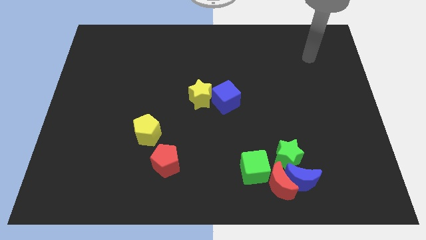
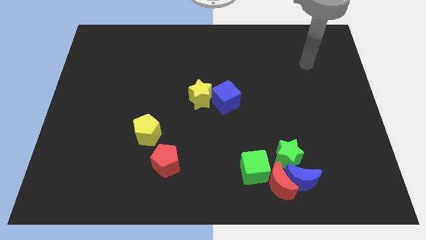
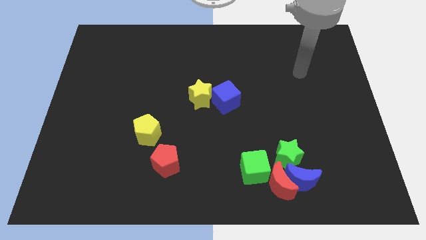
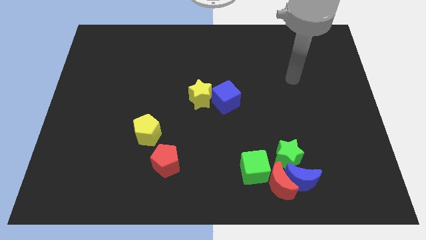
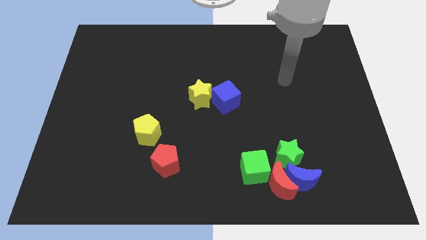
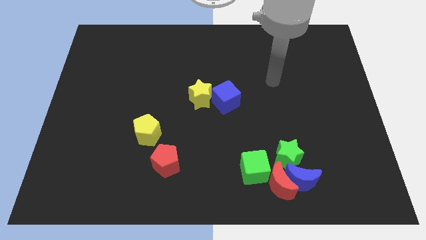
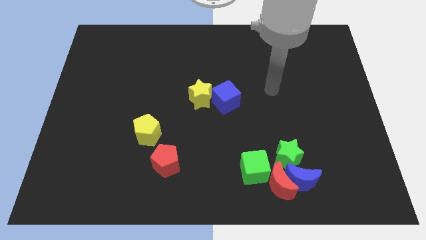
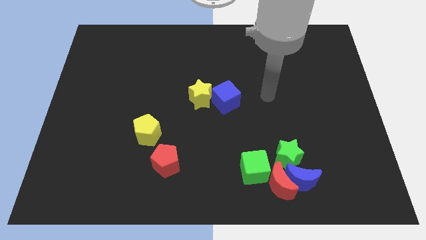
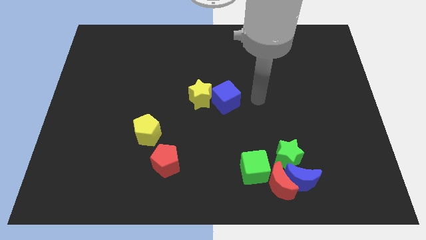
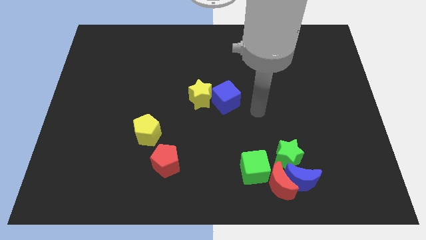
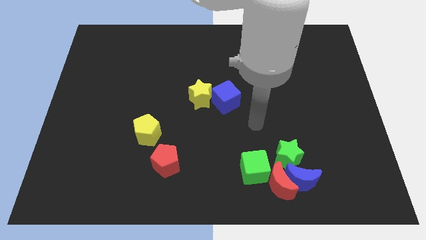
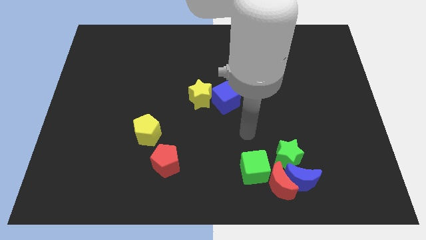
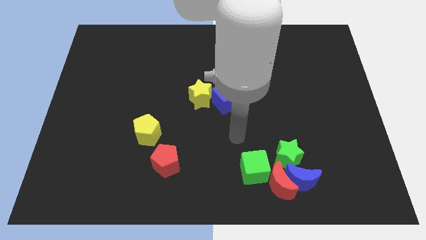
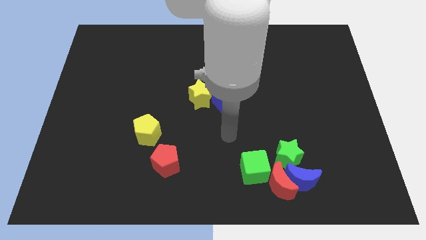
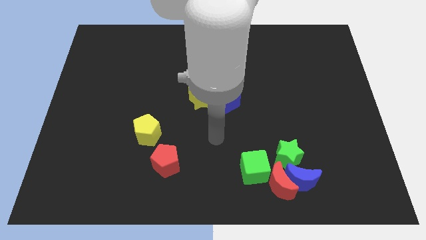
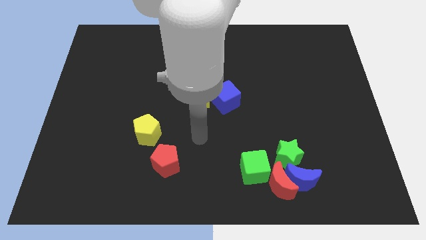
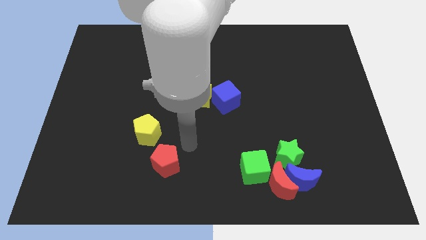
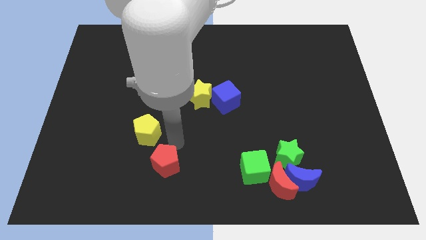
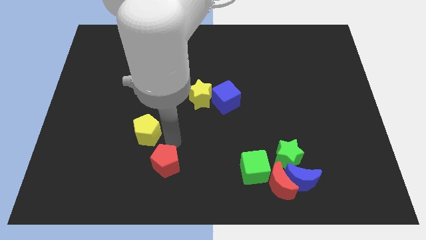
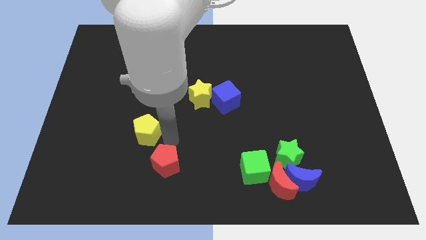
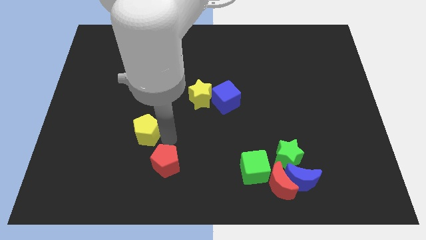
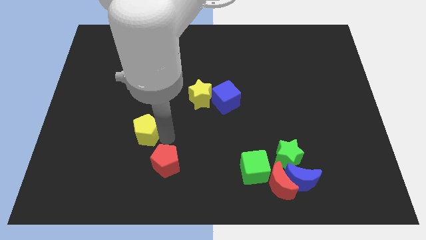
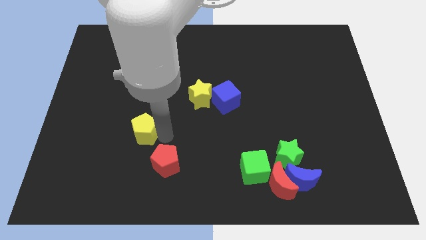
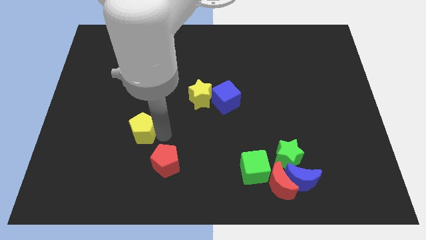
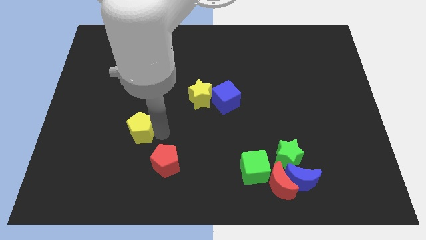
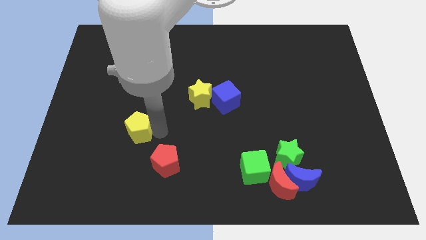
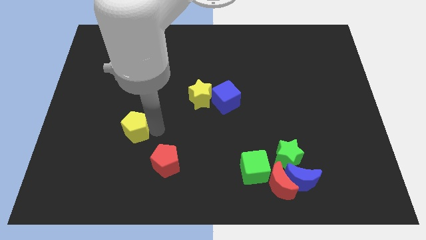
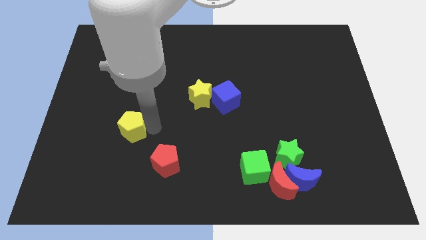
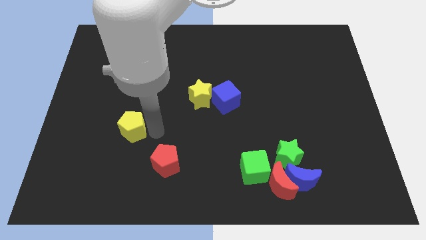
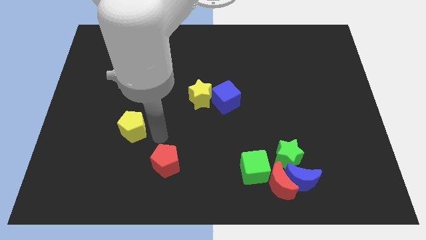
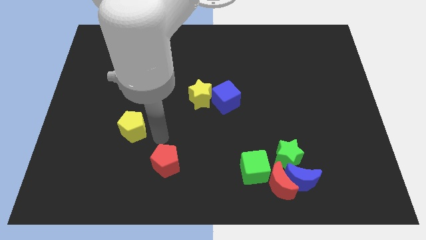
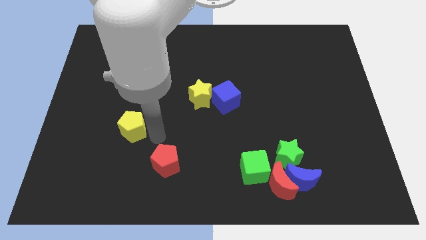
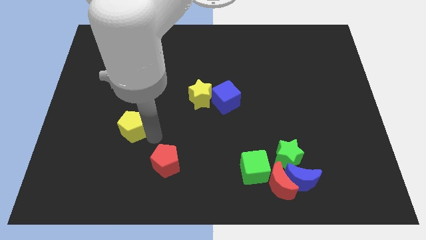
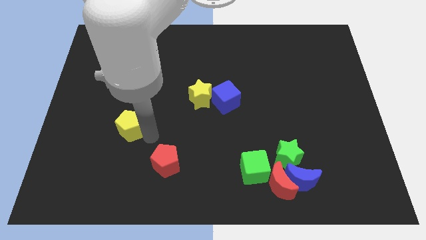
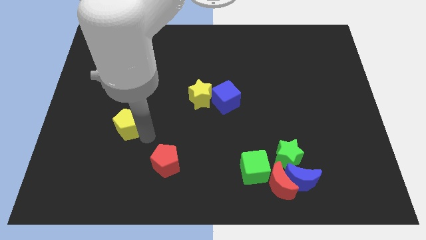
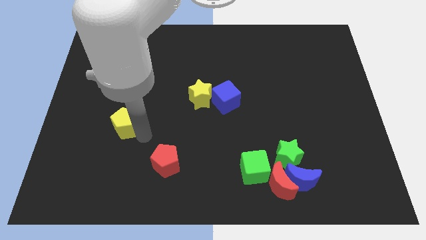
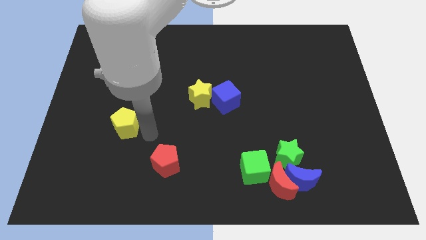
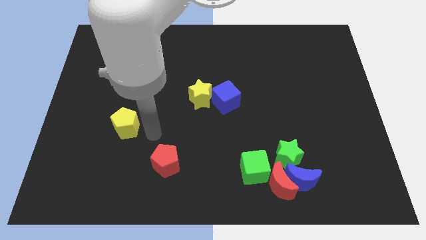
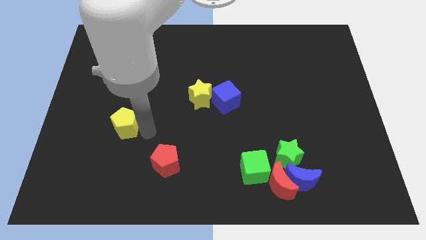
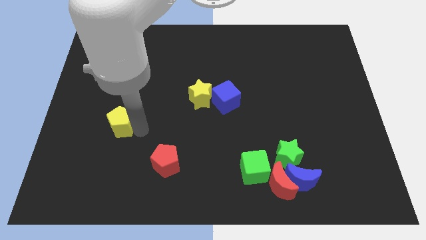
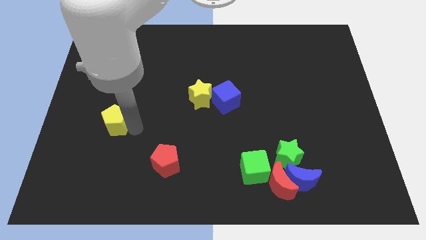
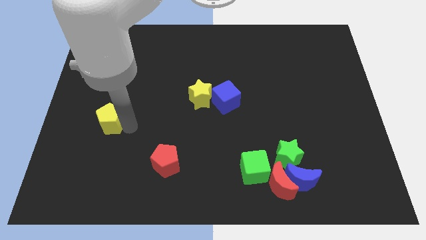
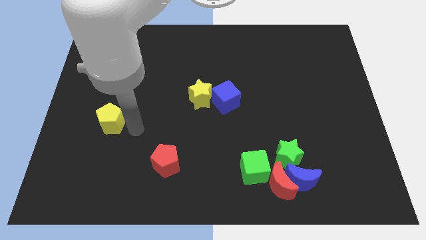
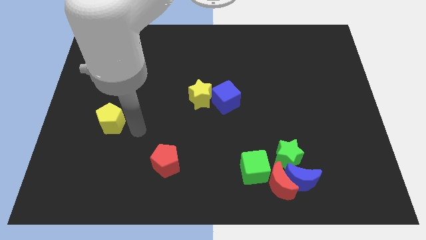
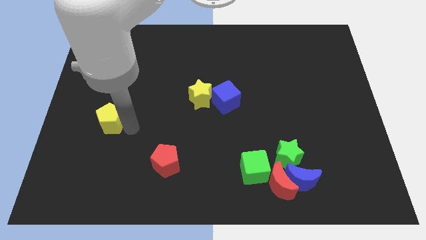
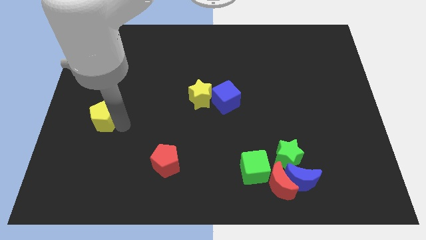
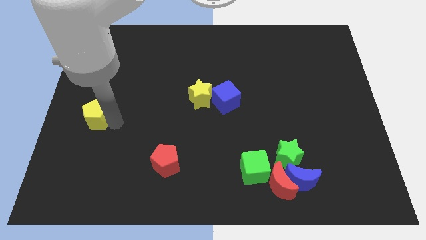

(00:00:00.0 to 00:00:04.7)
put the yellow pentagon to the left side of the board

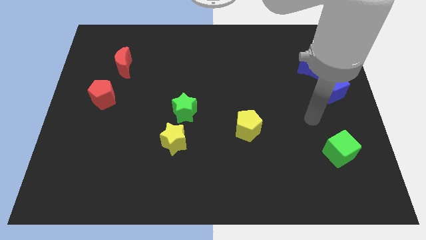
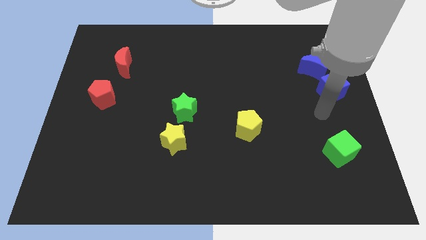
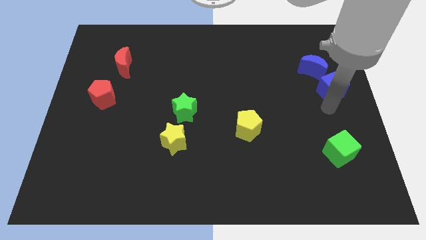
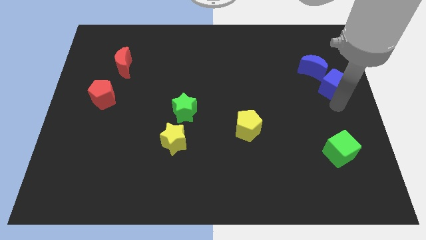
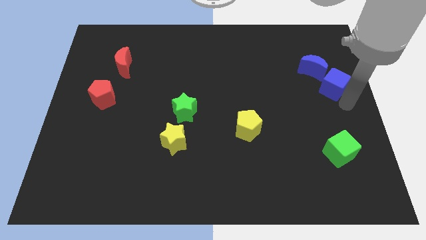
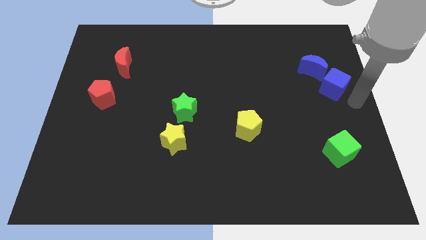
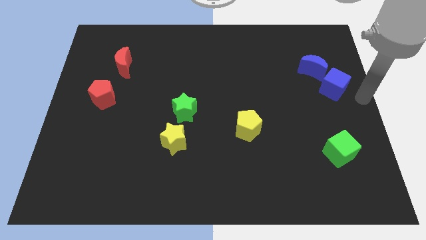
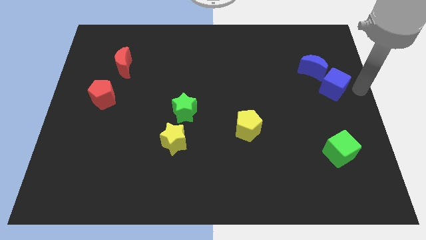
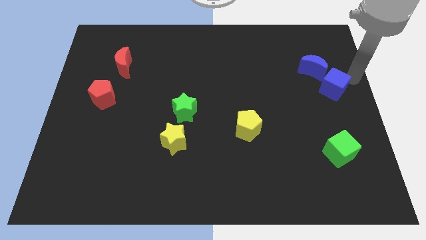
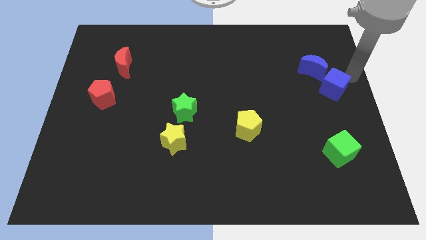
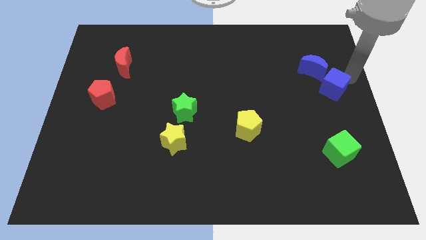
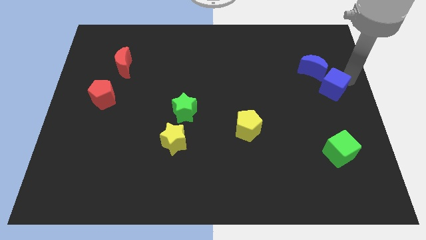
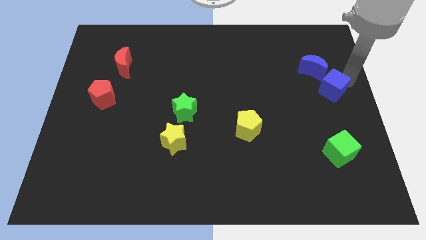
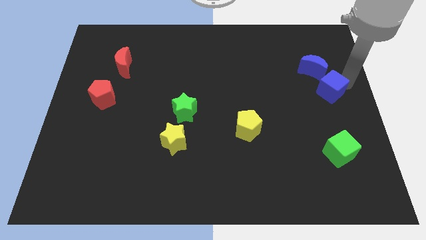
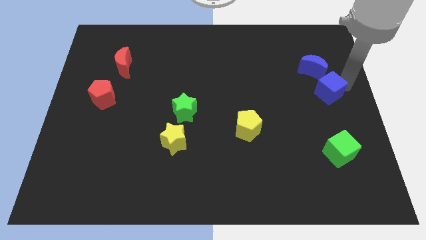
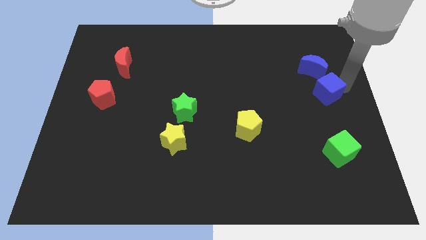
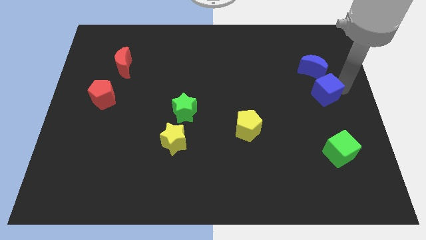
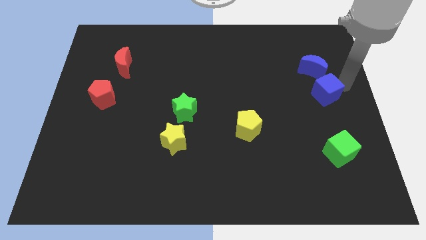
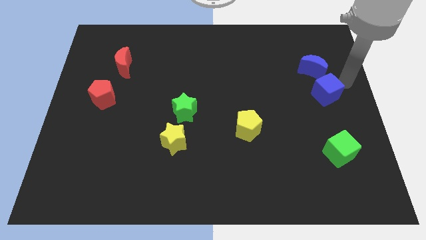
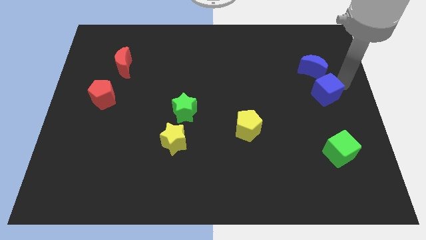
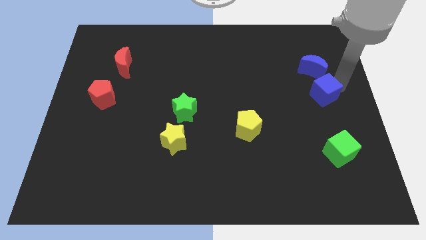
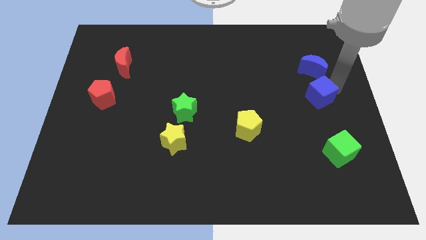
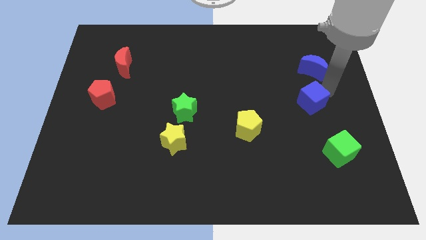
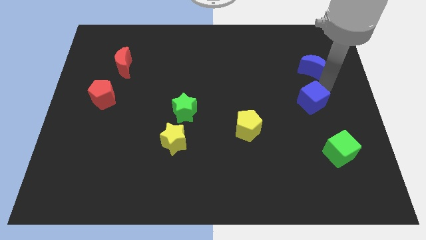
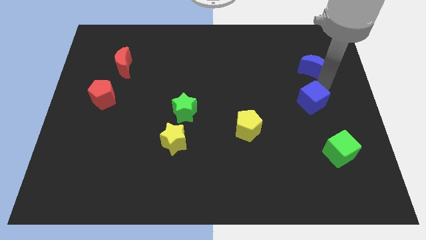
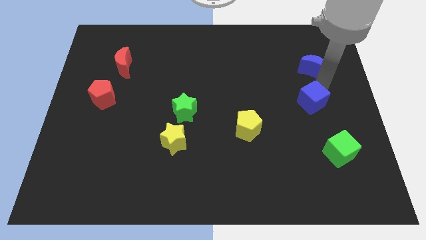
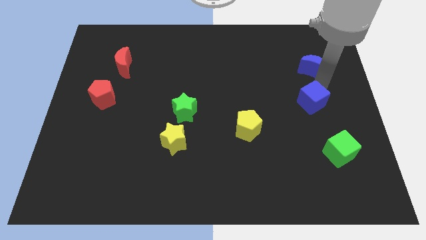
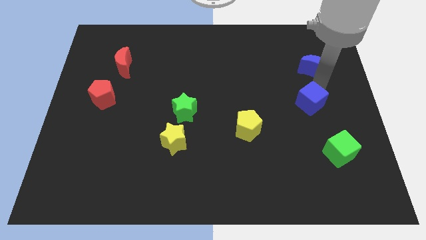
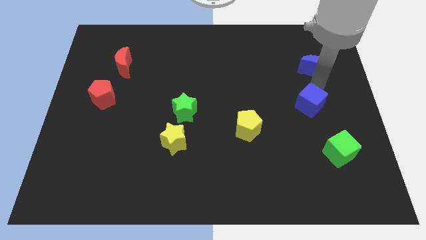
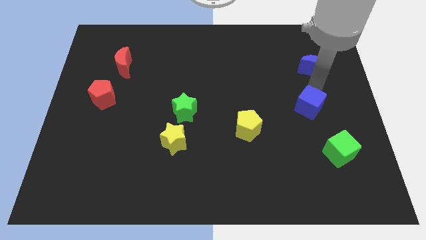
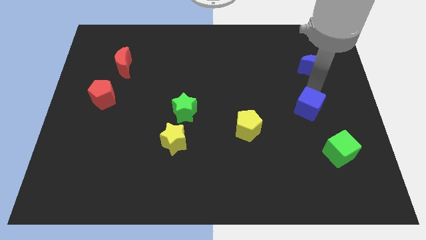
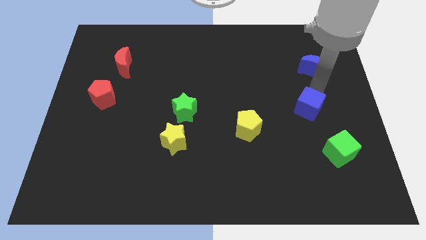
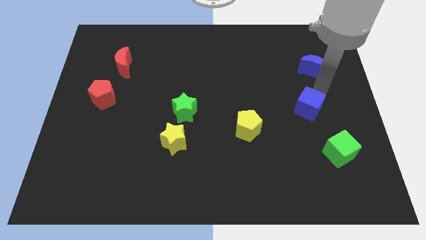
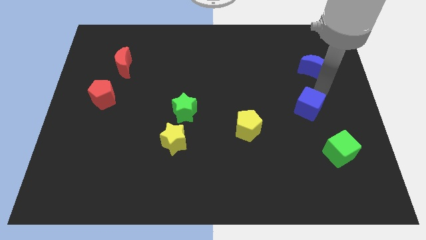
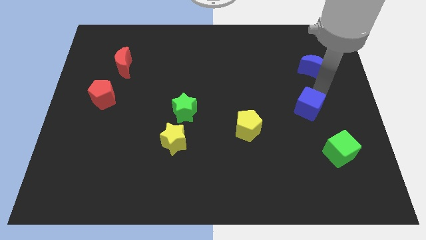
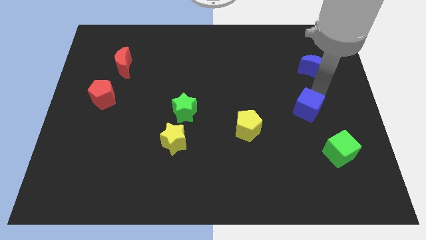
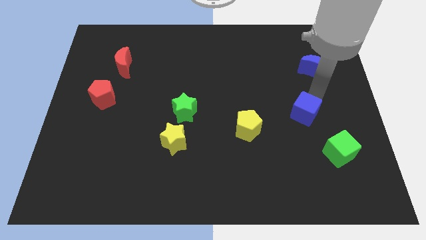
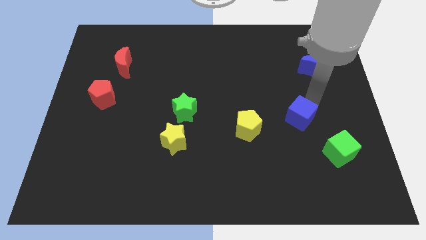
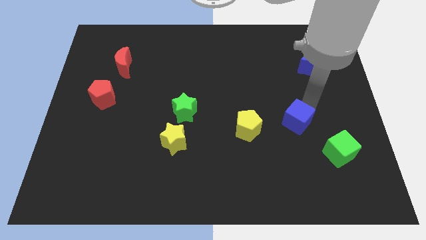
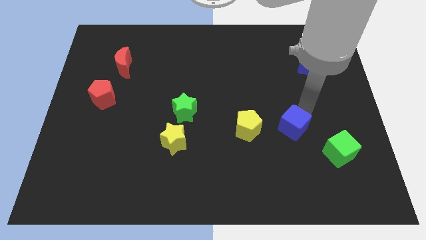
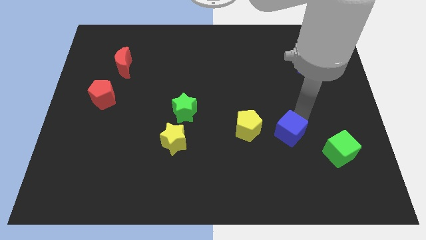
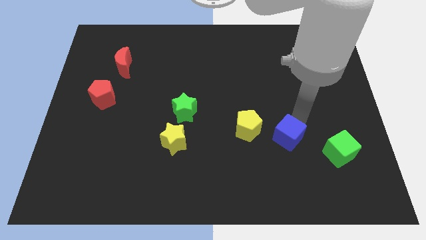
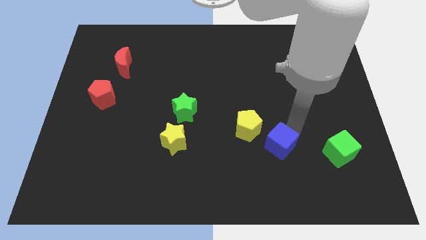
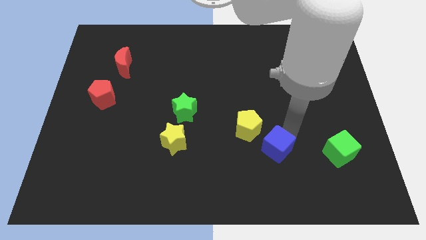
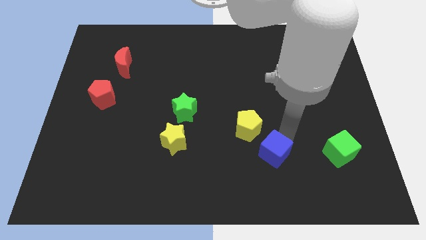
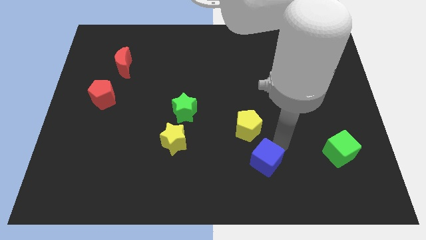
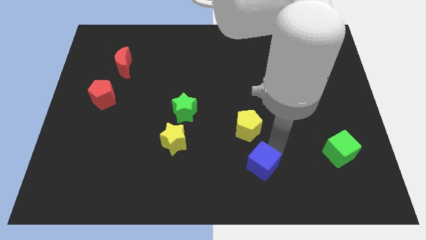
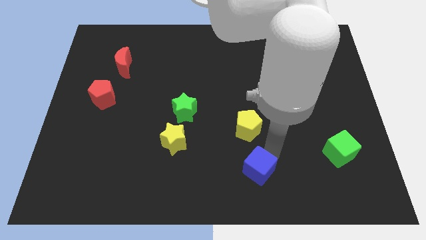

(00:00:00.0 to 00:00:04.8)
slide the blue cube to the bottom
